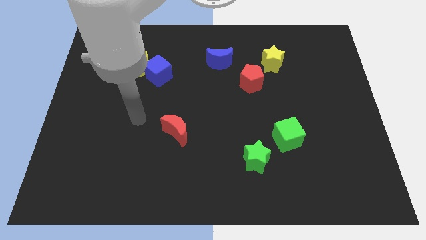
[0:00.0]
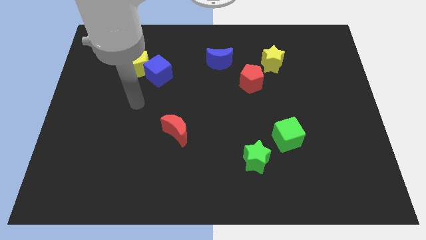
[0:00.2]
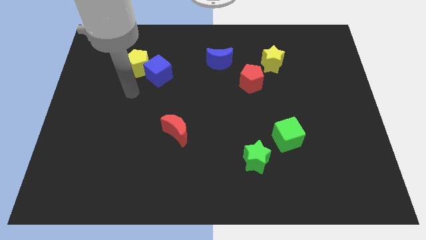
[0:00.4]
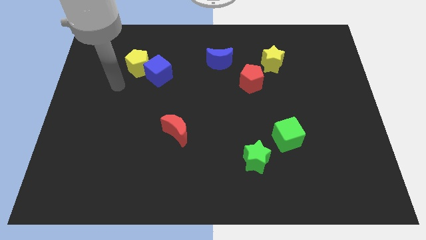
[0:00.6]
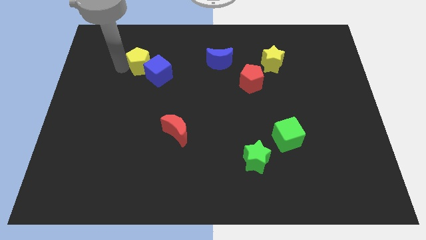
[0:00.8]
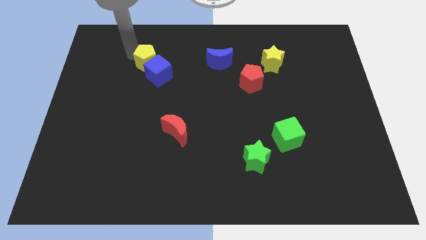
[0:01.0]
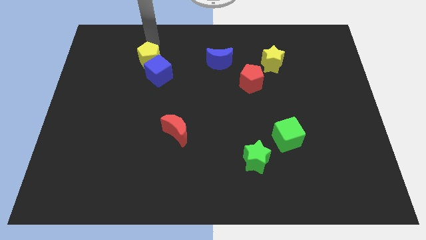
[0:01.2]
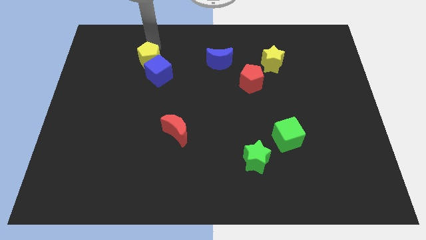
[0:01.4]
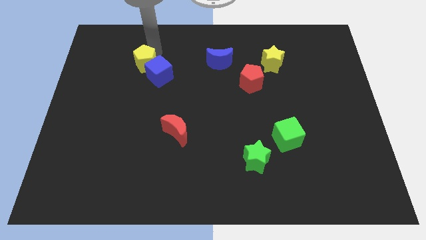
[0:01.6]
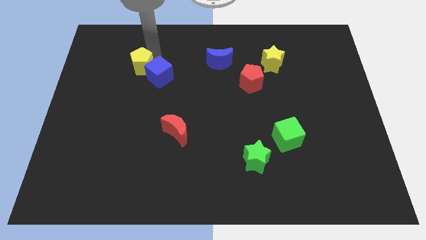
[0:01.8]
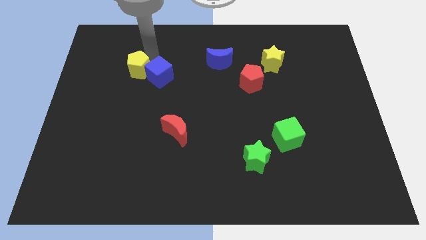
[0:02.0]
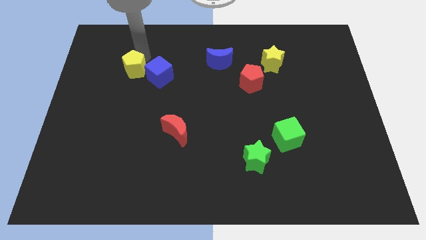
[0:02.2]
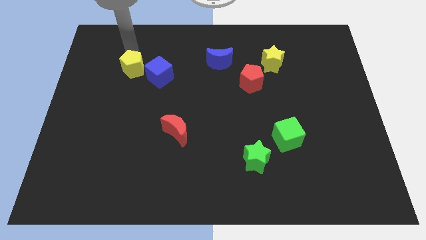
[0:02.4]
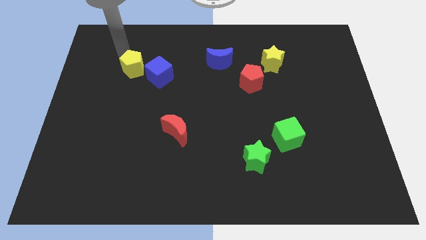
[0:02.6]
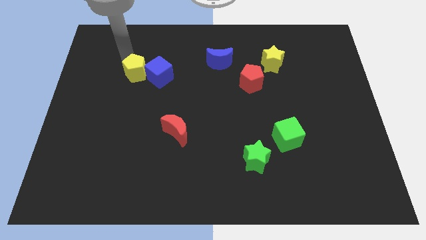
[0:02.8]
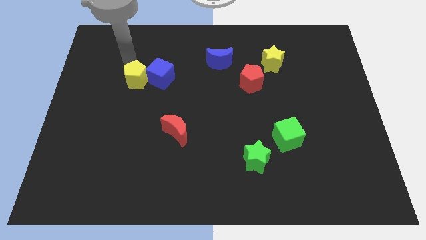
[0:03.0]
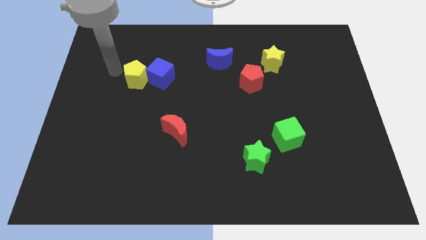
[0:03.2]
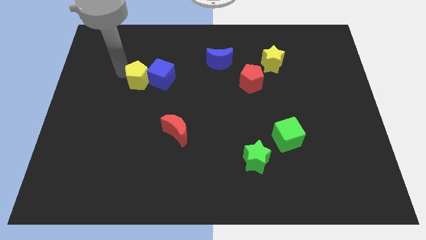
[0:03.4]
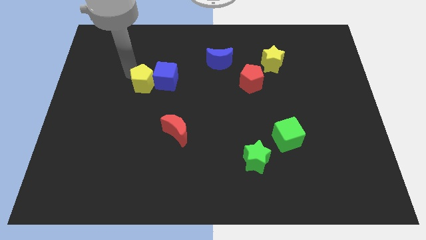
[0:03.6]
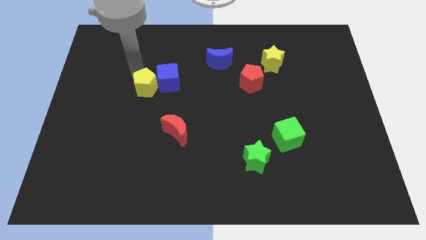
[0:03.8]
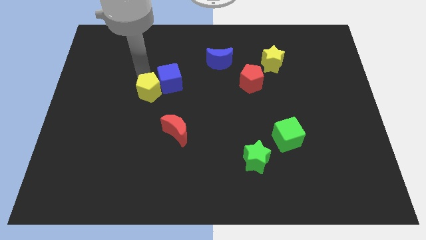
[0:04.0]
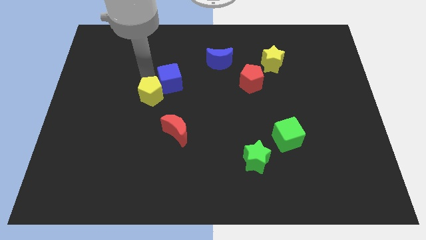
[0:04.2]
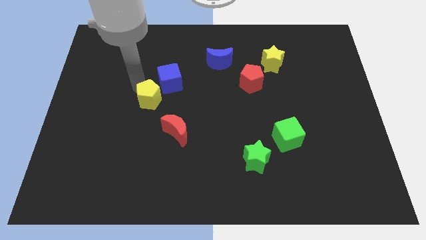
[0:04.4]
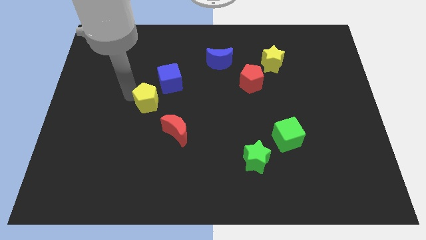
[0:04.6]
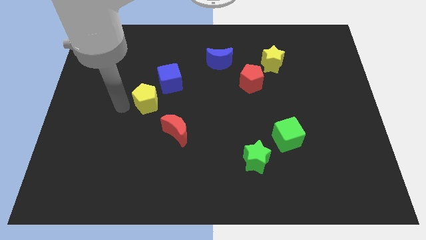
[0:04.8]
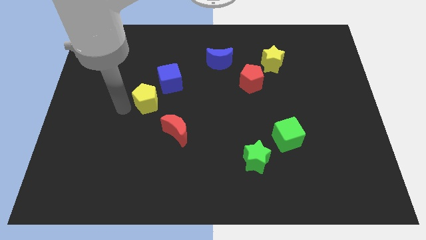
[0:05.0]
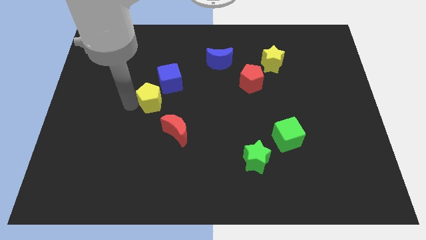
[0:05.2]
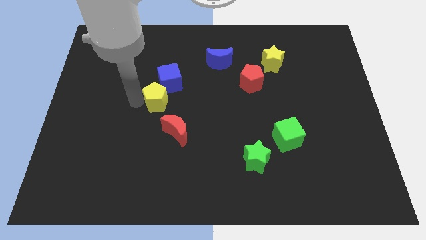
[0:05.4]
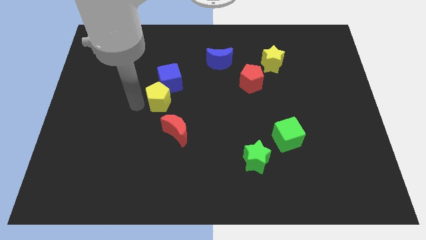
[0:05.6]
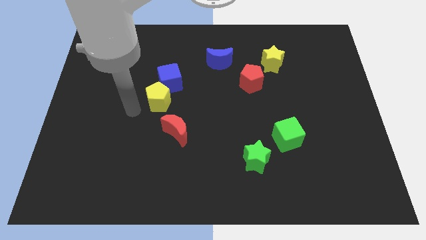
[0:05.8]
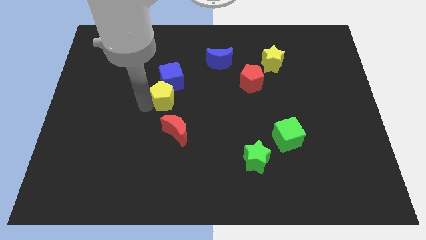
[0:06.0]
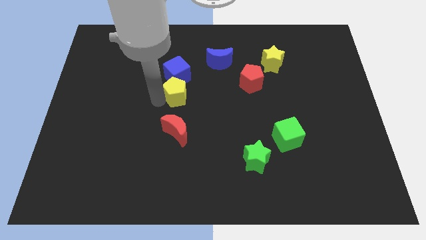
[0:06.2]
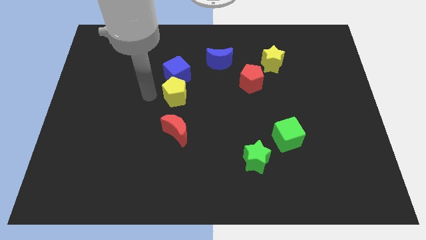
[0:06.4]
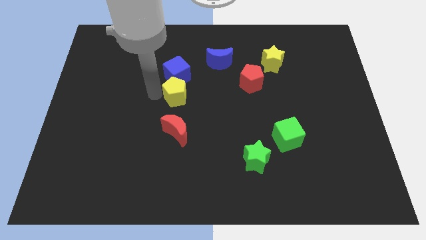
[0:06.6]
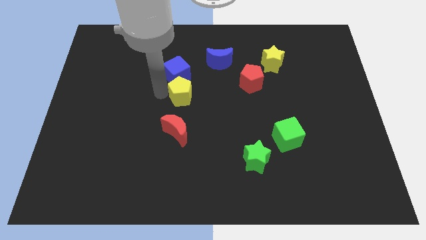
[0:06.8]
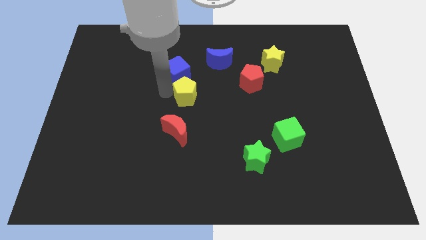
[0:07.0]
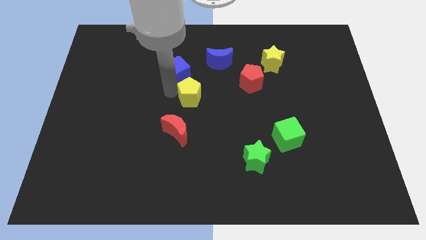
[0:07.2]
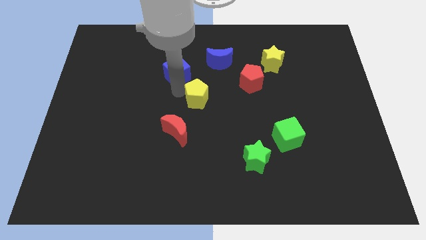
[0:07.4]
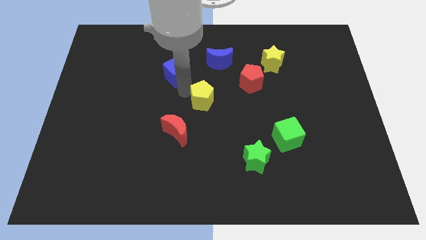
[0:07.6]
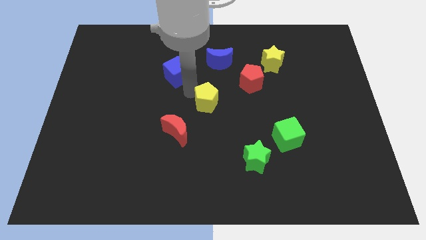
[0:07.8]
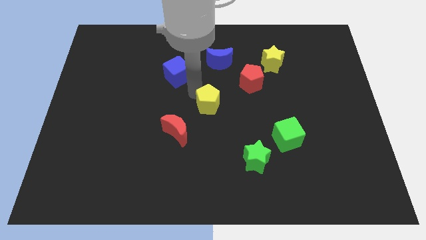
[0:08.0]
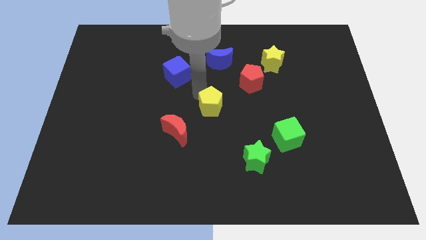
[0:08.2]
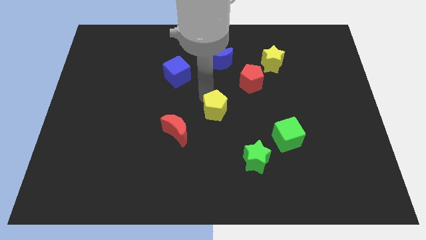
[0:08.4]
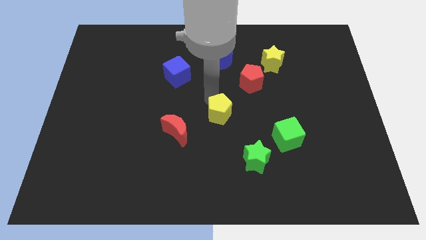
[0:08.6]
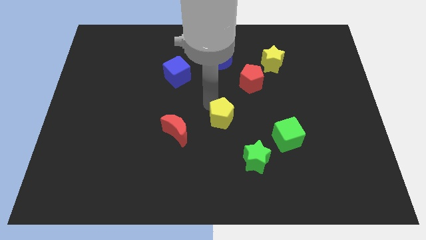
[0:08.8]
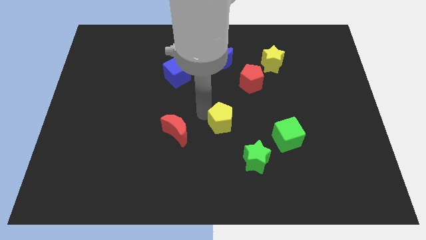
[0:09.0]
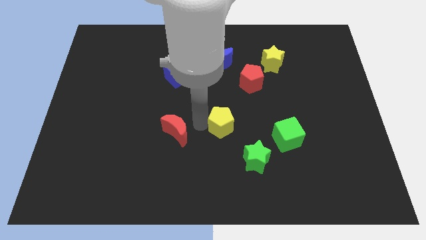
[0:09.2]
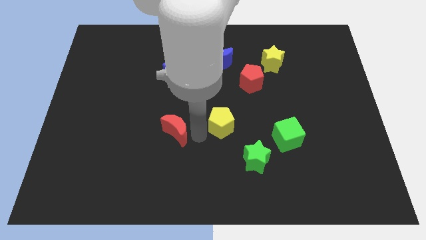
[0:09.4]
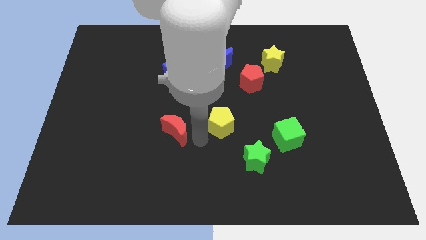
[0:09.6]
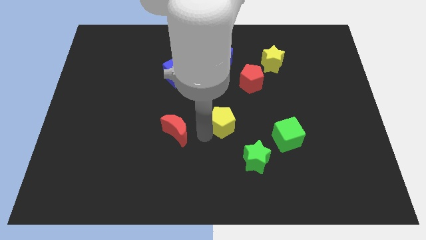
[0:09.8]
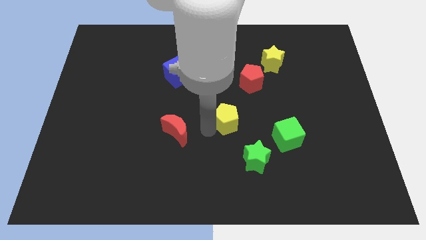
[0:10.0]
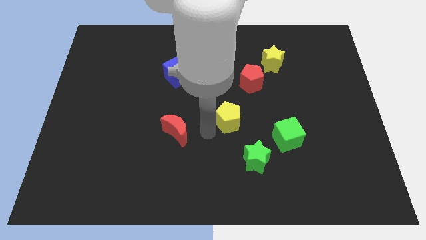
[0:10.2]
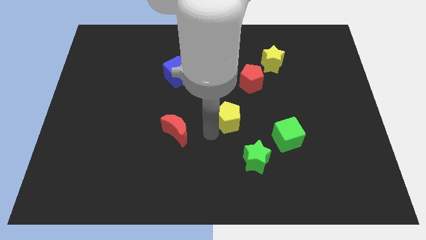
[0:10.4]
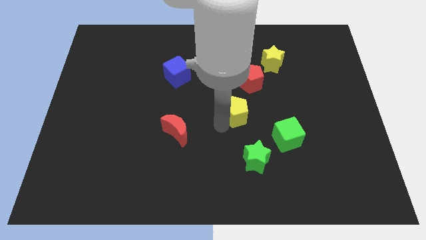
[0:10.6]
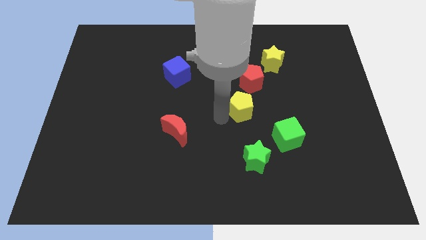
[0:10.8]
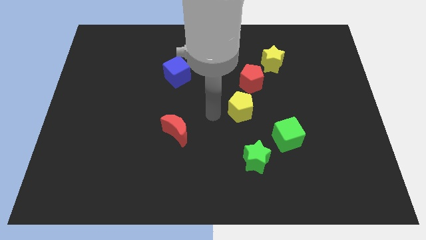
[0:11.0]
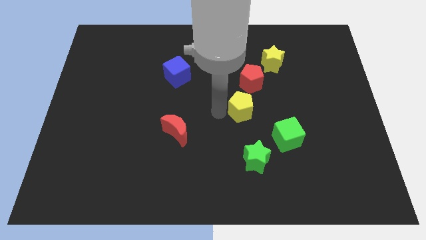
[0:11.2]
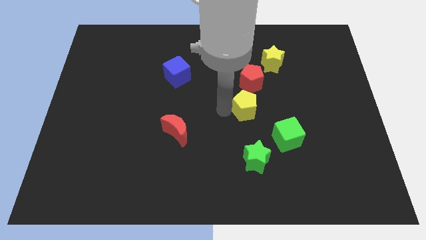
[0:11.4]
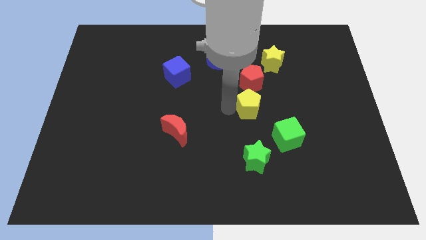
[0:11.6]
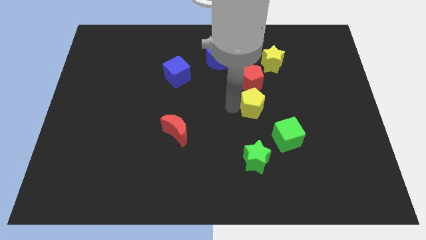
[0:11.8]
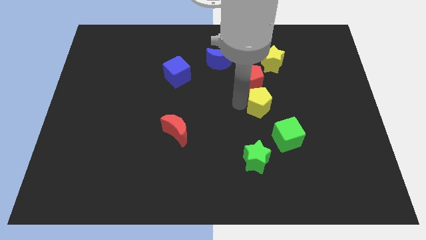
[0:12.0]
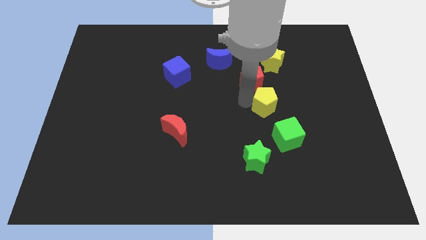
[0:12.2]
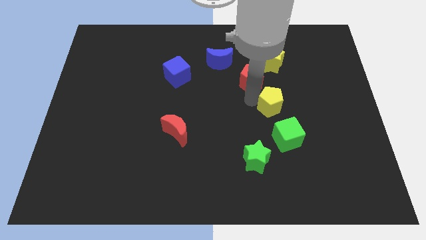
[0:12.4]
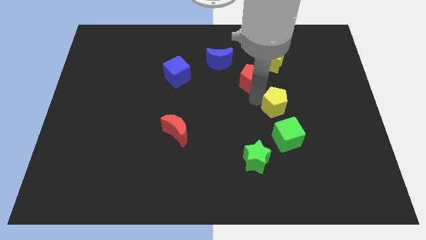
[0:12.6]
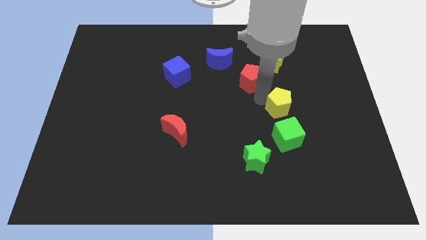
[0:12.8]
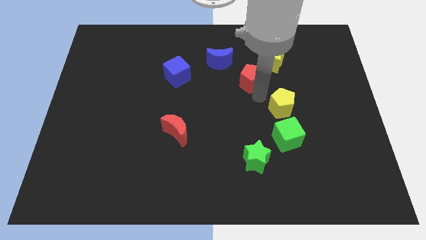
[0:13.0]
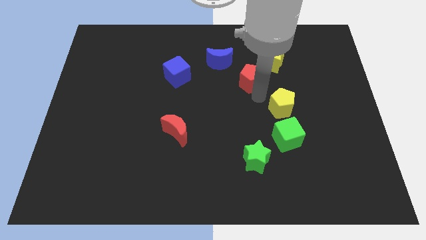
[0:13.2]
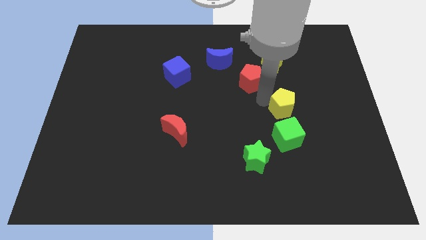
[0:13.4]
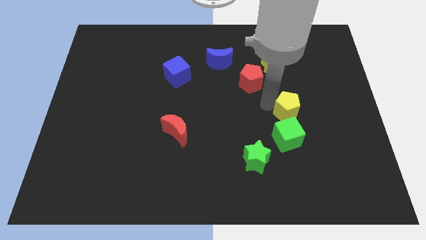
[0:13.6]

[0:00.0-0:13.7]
slide the yellow pentagon diagonally up and to the right of the green cube

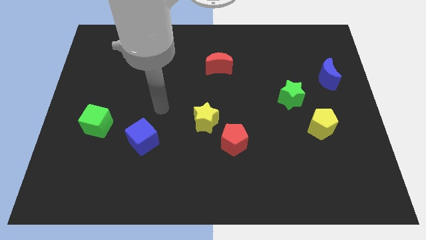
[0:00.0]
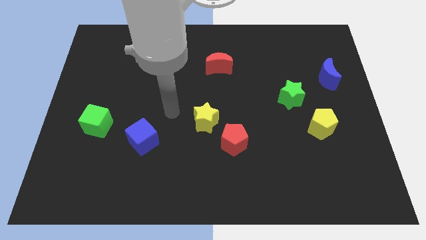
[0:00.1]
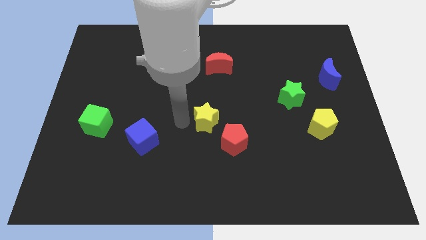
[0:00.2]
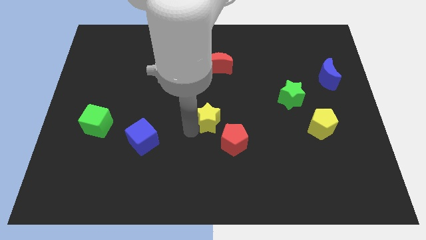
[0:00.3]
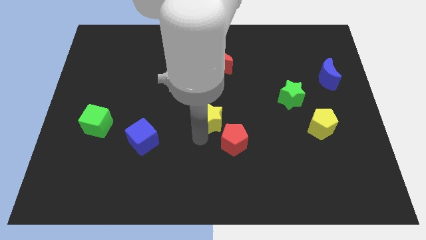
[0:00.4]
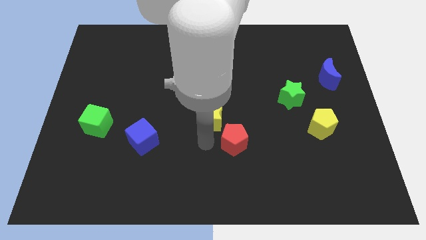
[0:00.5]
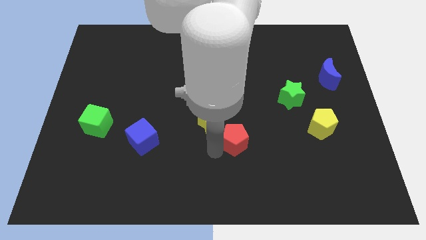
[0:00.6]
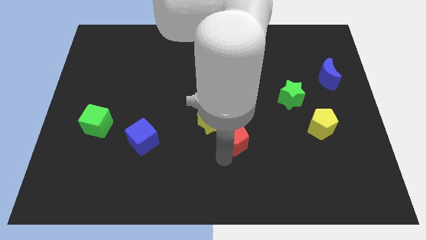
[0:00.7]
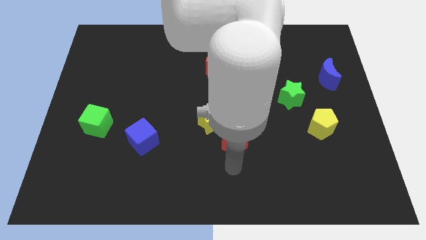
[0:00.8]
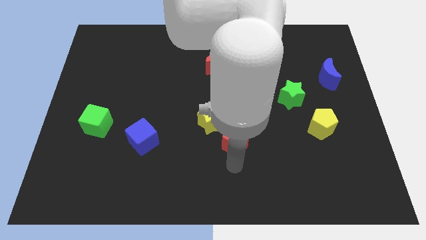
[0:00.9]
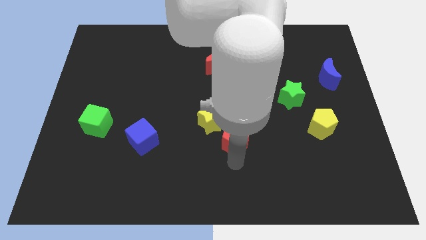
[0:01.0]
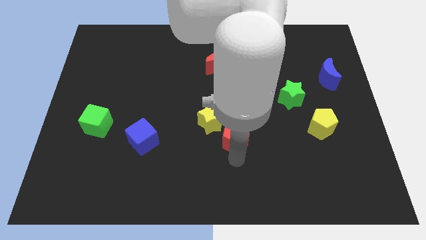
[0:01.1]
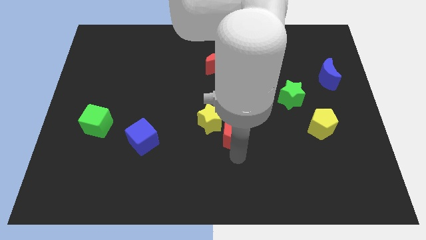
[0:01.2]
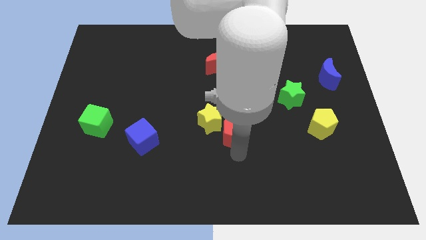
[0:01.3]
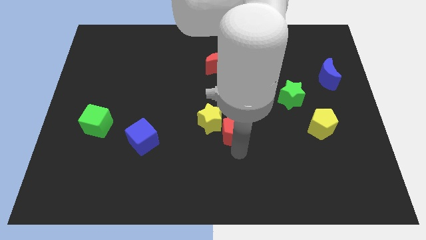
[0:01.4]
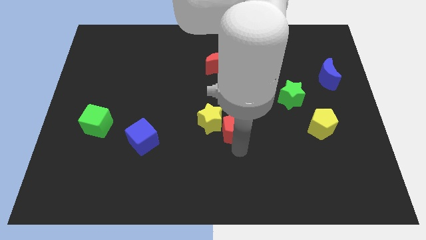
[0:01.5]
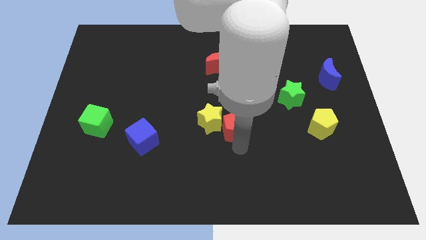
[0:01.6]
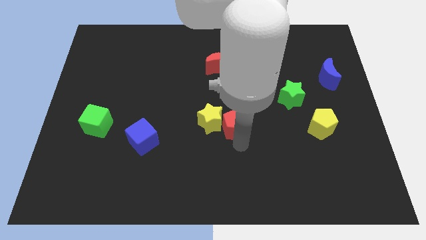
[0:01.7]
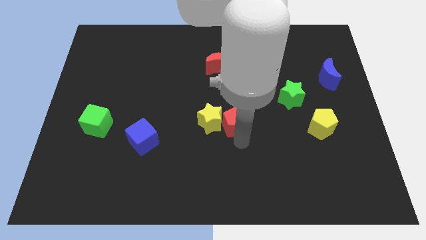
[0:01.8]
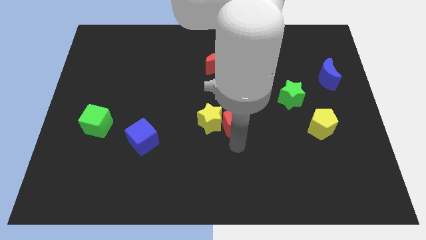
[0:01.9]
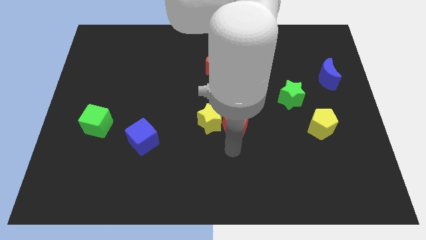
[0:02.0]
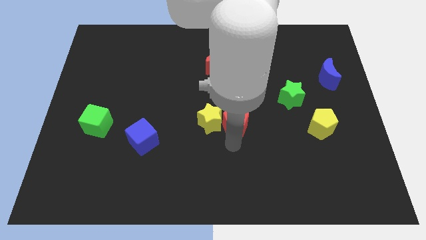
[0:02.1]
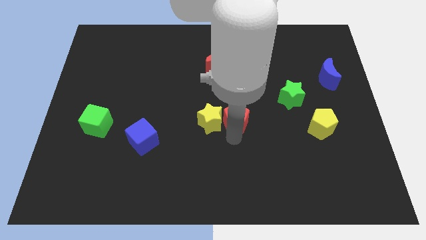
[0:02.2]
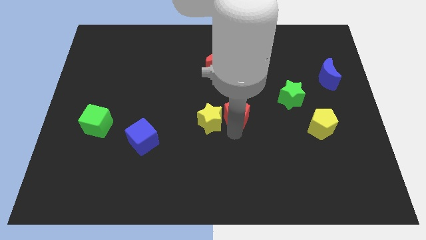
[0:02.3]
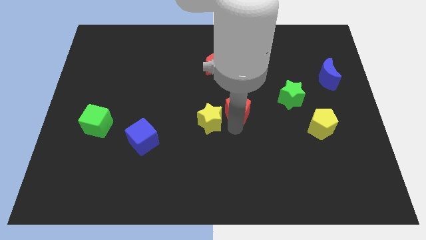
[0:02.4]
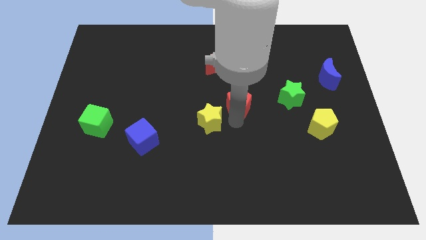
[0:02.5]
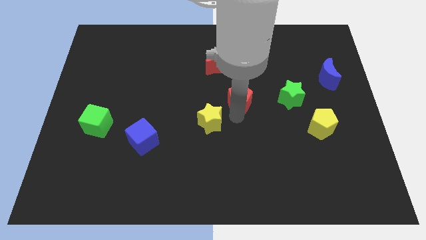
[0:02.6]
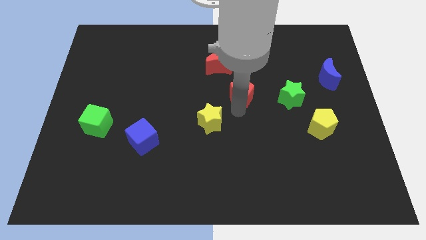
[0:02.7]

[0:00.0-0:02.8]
move the red pentagon to the bottom right of the red moon
